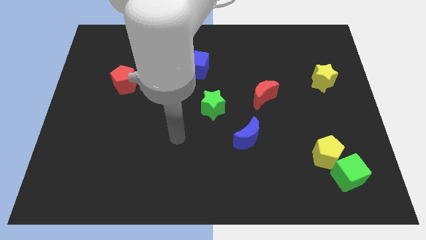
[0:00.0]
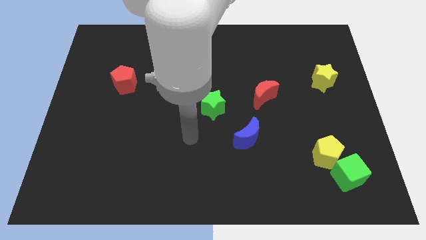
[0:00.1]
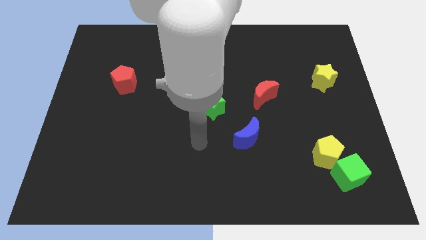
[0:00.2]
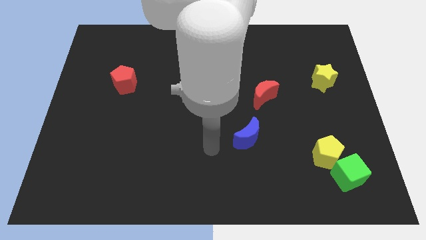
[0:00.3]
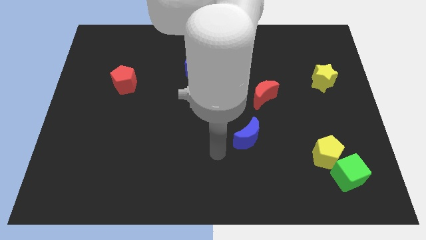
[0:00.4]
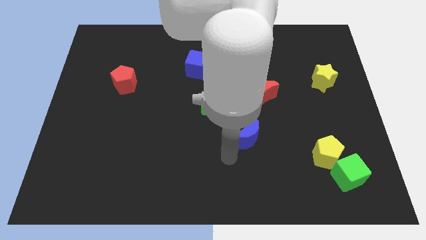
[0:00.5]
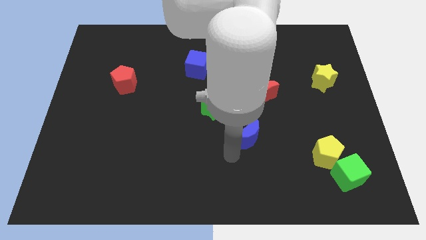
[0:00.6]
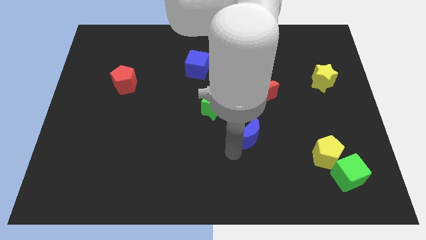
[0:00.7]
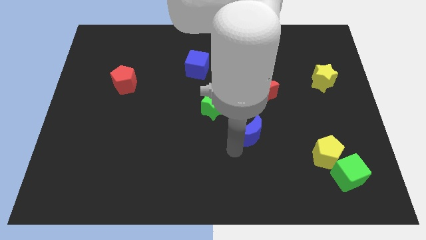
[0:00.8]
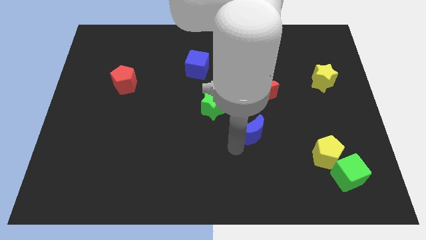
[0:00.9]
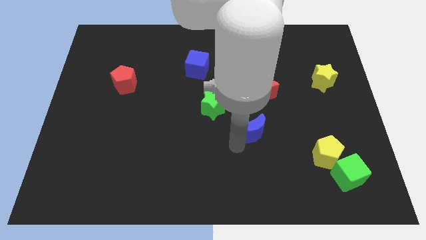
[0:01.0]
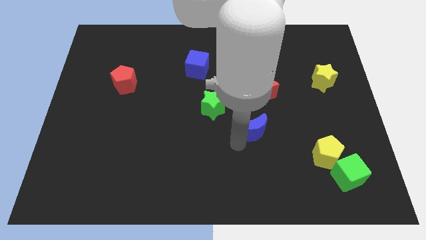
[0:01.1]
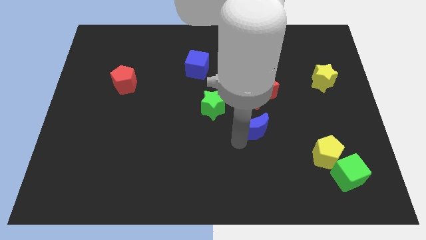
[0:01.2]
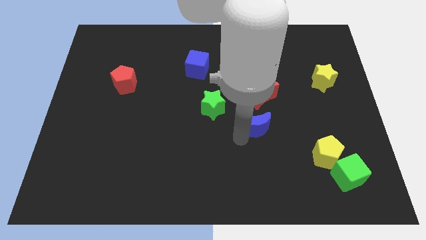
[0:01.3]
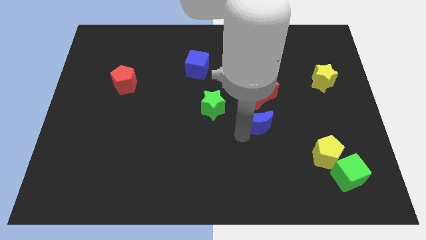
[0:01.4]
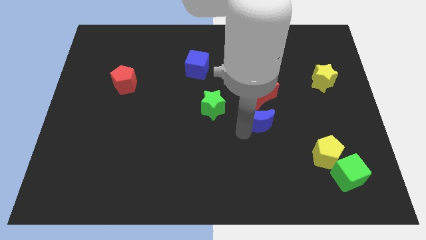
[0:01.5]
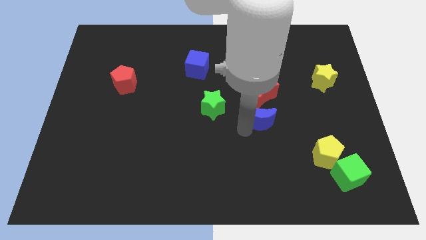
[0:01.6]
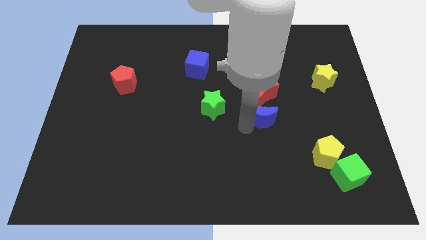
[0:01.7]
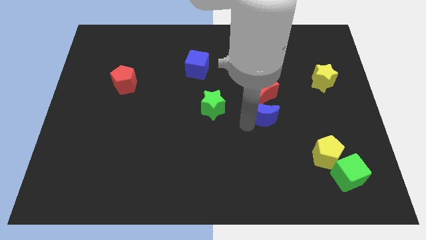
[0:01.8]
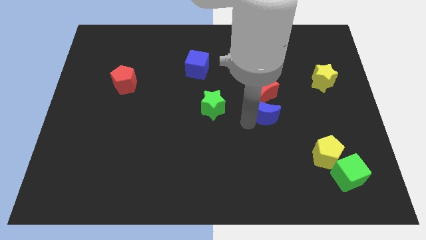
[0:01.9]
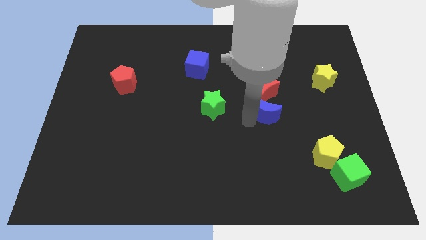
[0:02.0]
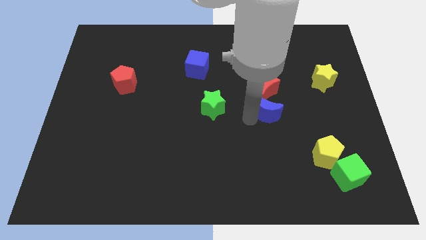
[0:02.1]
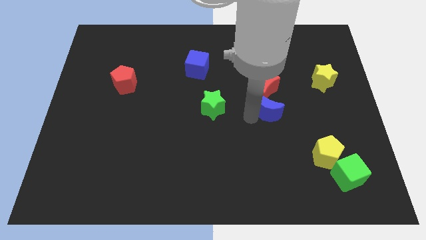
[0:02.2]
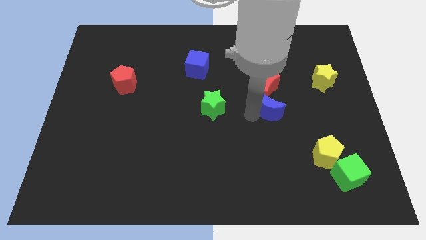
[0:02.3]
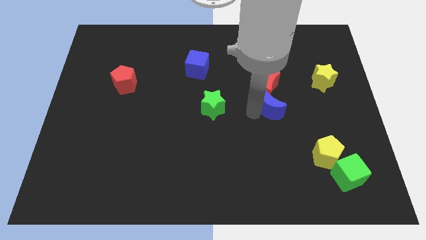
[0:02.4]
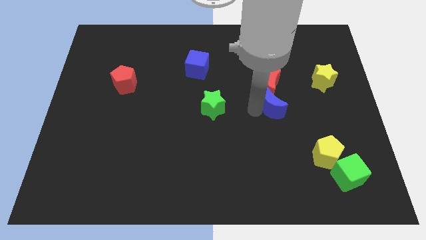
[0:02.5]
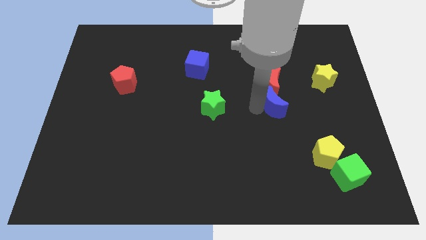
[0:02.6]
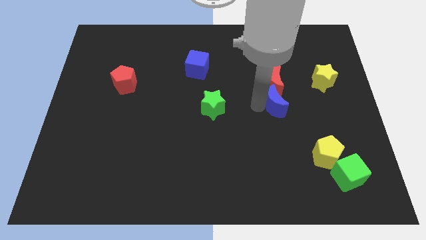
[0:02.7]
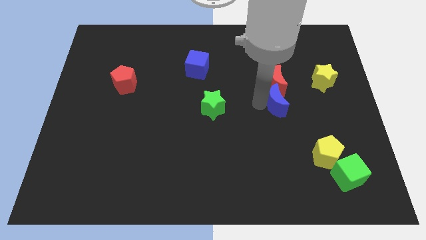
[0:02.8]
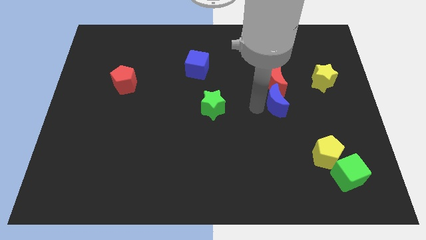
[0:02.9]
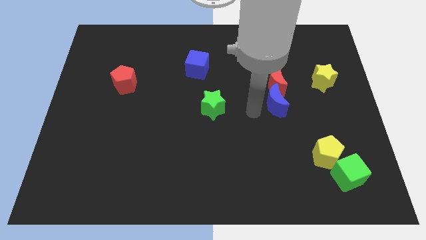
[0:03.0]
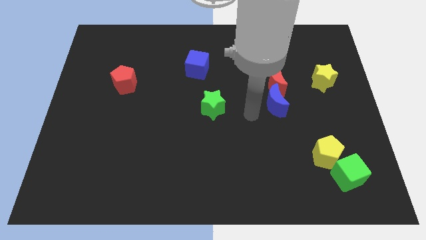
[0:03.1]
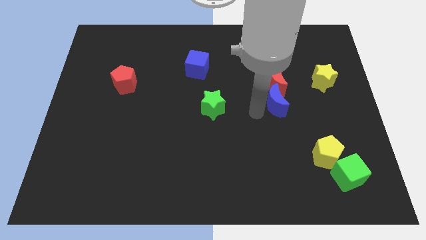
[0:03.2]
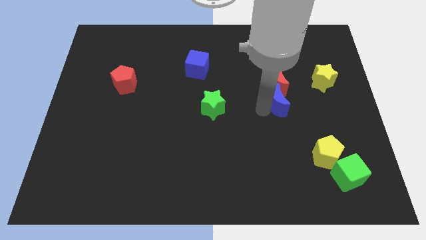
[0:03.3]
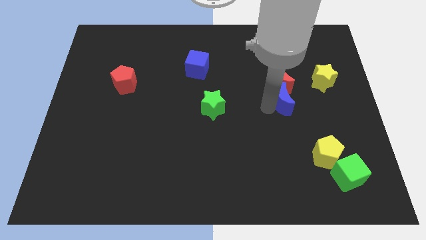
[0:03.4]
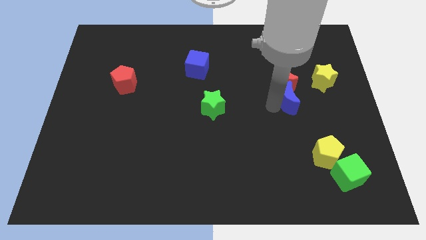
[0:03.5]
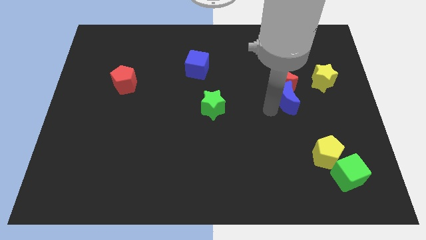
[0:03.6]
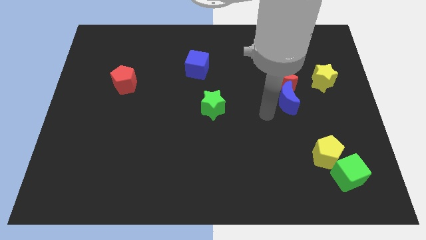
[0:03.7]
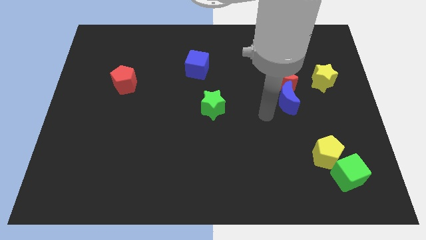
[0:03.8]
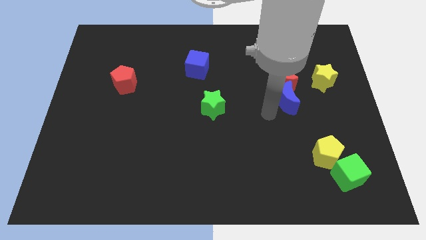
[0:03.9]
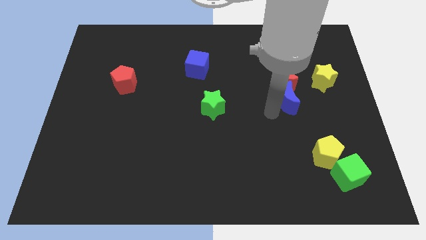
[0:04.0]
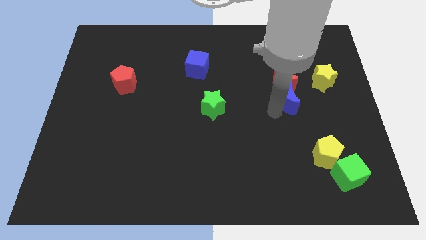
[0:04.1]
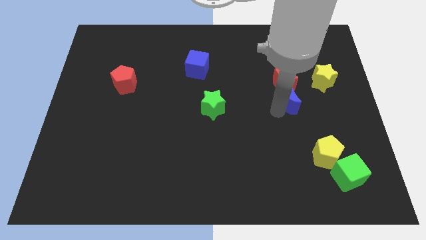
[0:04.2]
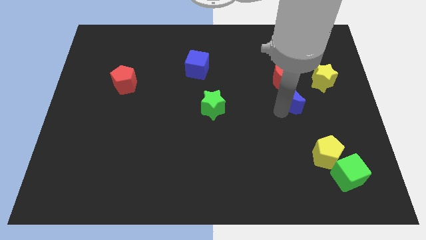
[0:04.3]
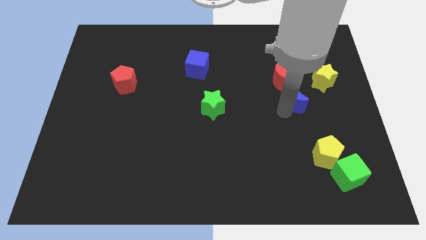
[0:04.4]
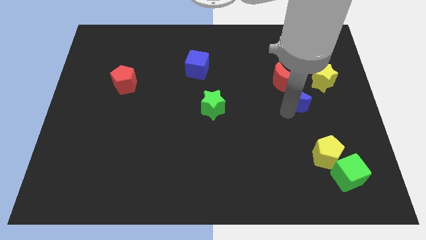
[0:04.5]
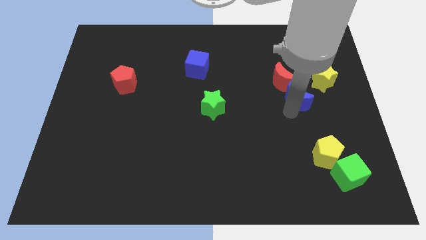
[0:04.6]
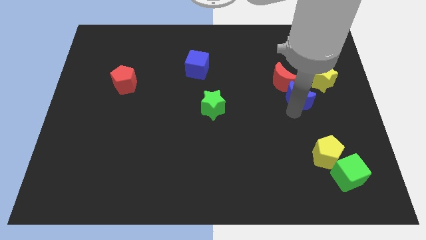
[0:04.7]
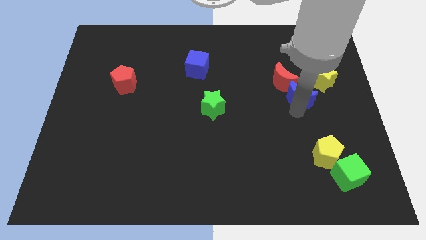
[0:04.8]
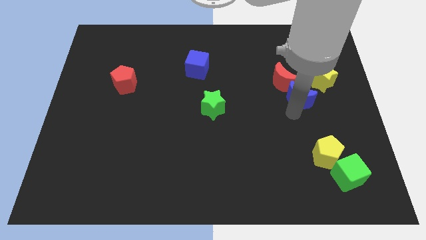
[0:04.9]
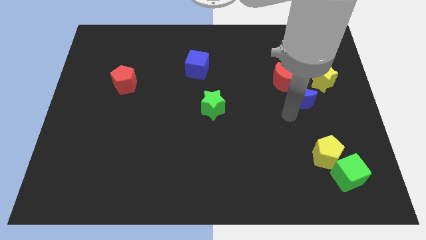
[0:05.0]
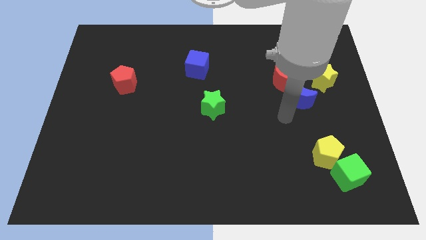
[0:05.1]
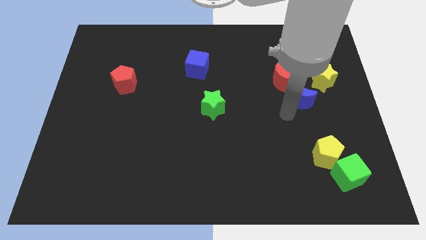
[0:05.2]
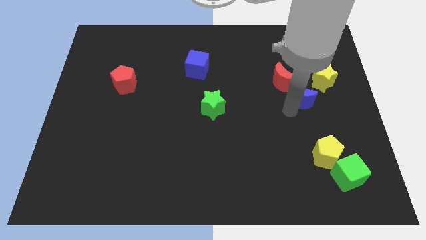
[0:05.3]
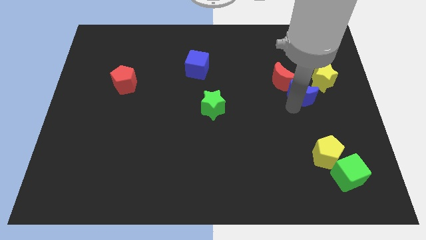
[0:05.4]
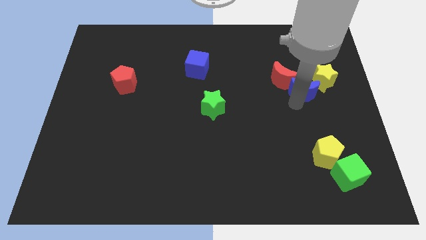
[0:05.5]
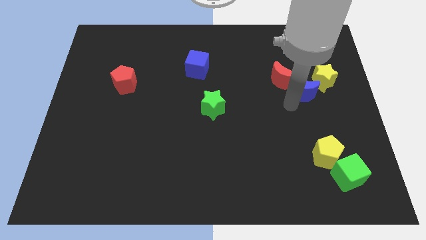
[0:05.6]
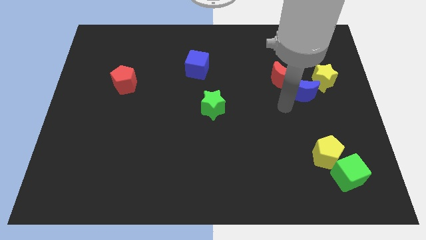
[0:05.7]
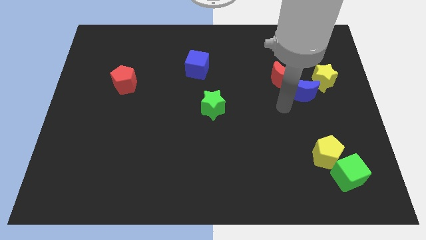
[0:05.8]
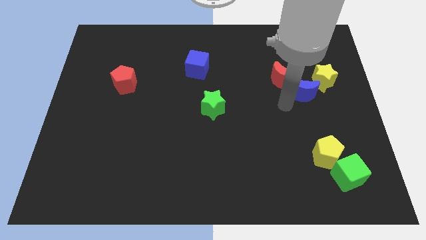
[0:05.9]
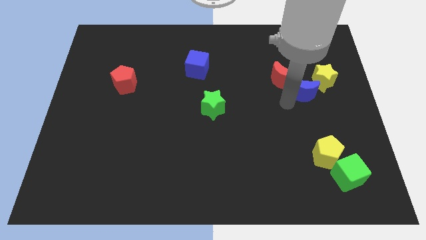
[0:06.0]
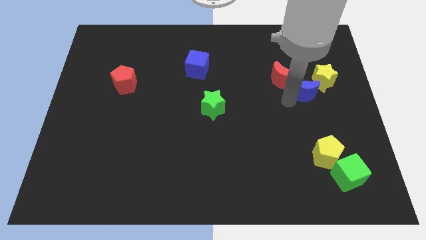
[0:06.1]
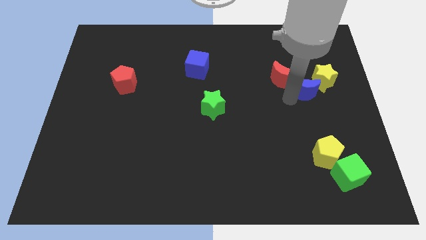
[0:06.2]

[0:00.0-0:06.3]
slide the blue moon close to the yellow star

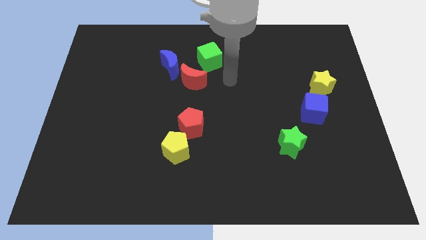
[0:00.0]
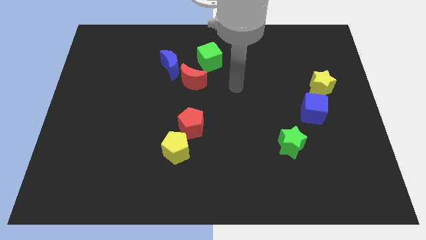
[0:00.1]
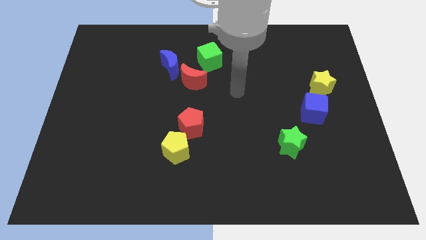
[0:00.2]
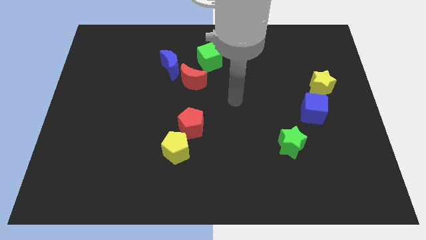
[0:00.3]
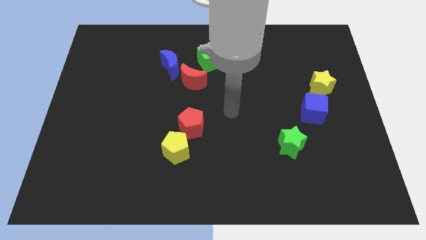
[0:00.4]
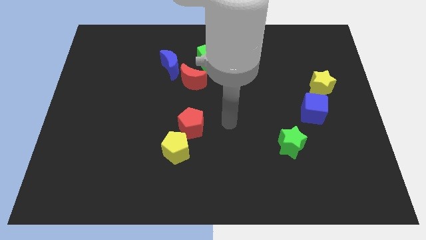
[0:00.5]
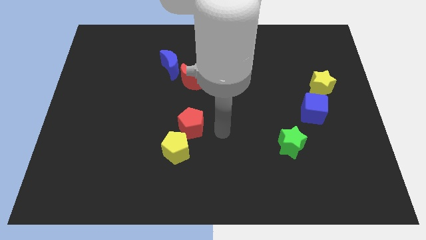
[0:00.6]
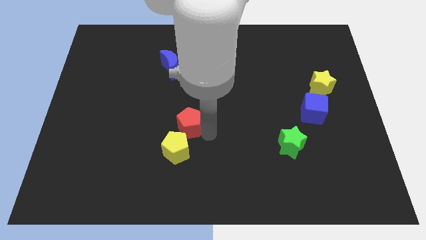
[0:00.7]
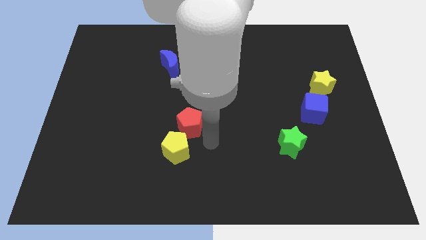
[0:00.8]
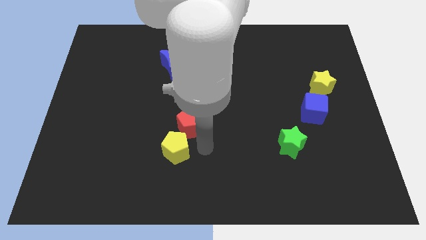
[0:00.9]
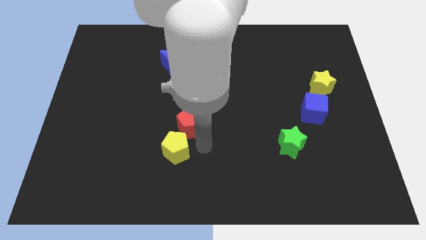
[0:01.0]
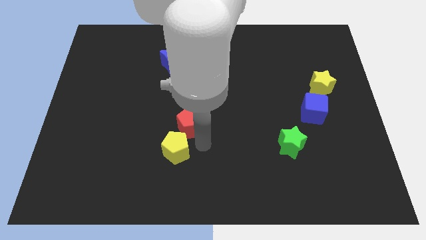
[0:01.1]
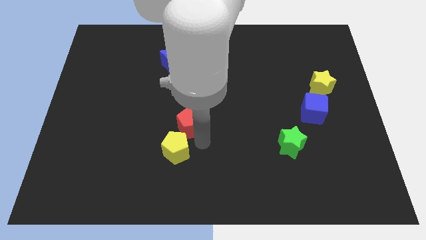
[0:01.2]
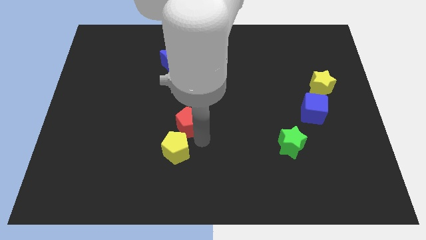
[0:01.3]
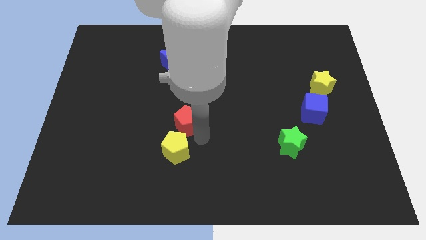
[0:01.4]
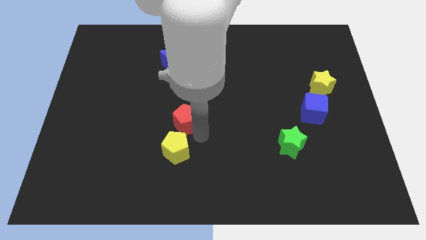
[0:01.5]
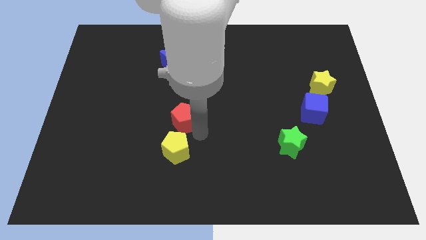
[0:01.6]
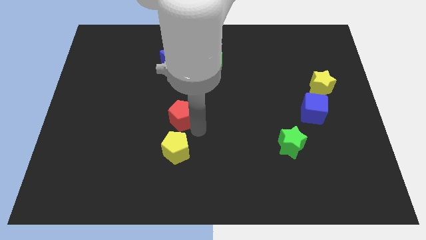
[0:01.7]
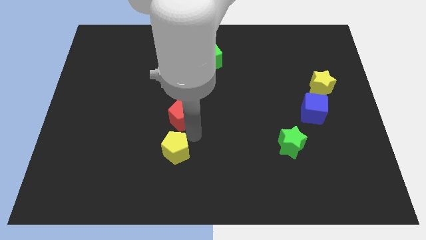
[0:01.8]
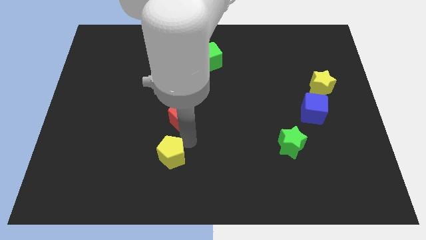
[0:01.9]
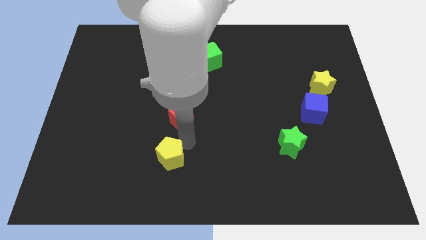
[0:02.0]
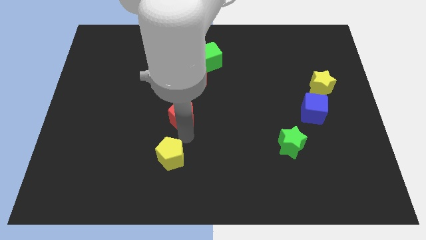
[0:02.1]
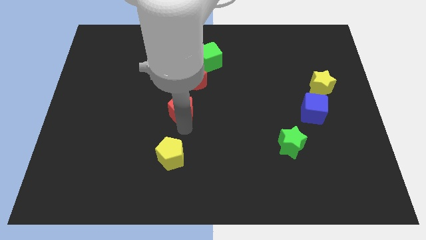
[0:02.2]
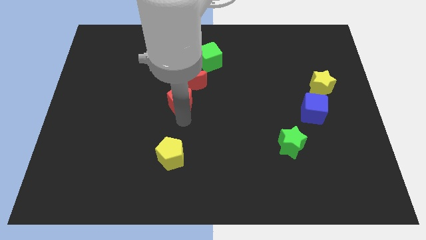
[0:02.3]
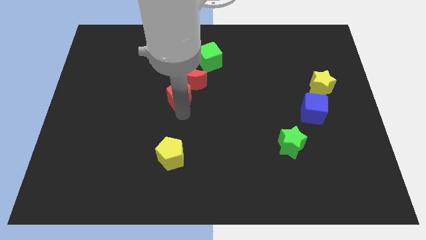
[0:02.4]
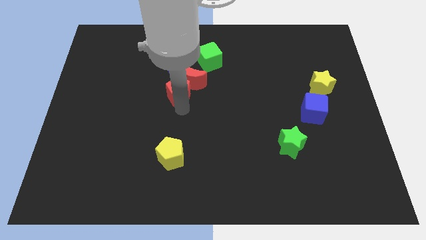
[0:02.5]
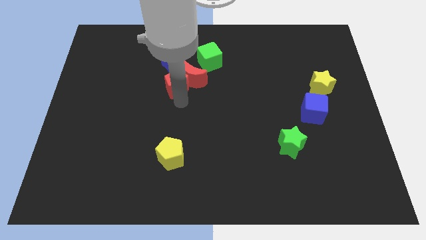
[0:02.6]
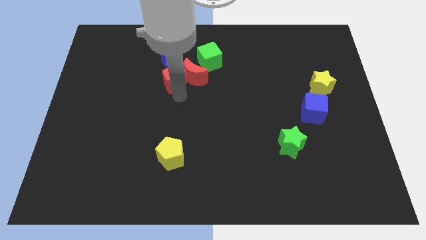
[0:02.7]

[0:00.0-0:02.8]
push the red pentagon towards the blue moon
